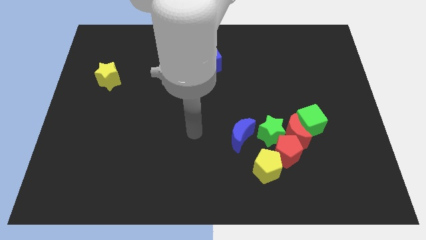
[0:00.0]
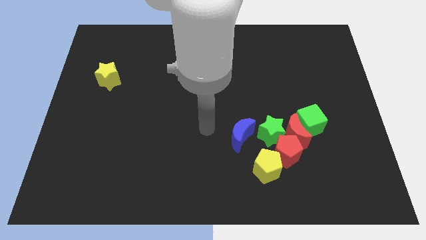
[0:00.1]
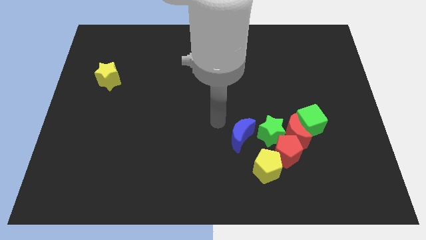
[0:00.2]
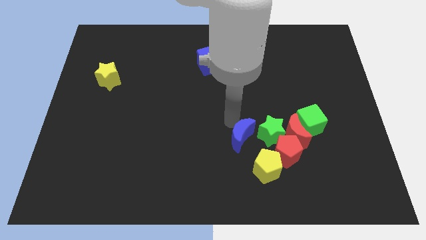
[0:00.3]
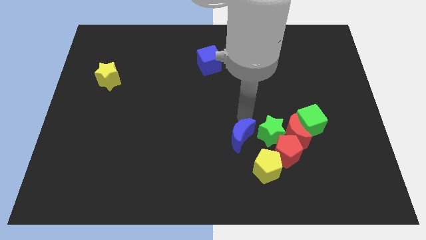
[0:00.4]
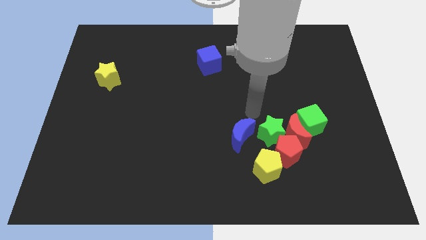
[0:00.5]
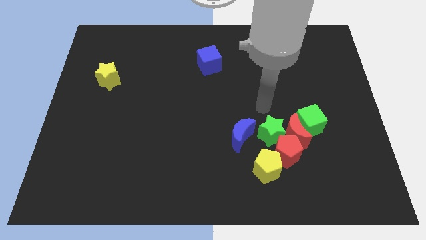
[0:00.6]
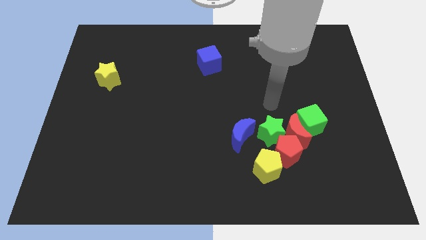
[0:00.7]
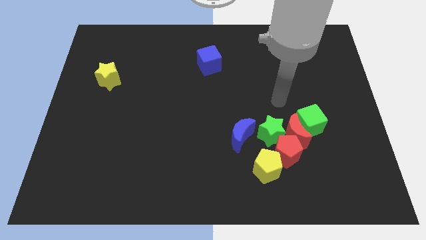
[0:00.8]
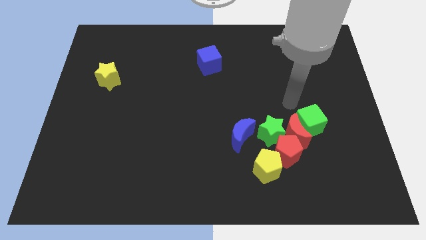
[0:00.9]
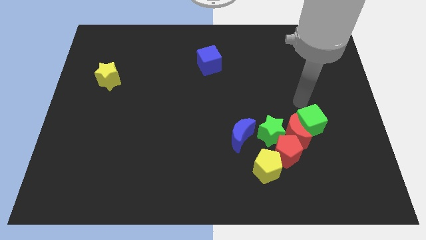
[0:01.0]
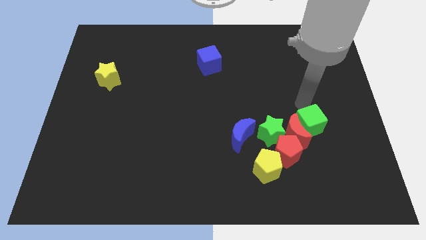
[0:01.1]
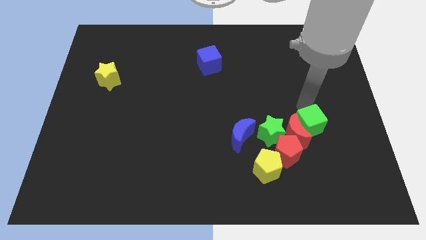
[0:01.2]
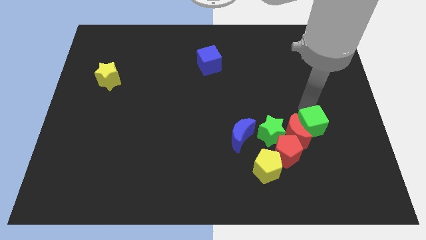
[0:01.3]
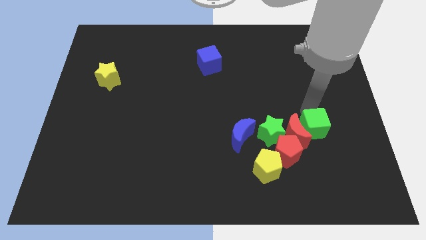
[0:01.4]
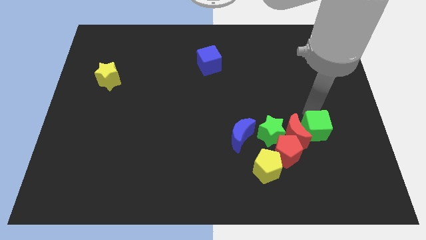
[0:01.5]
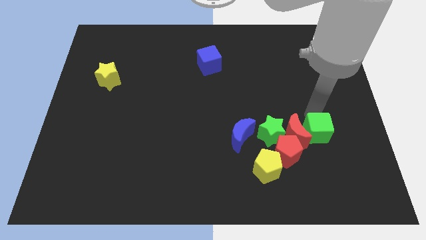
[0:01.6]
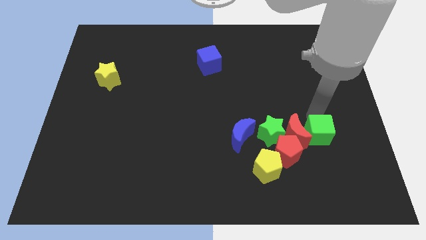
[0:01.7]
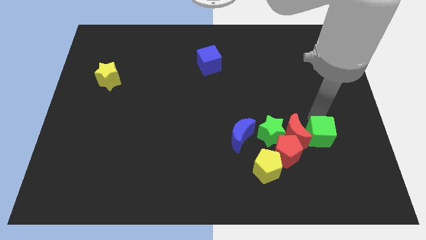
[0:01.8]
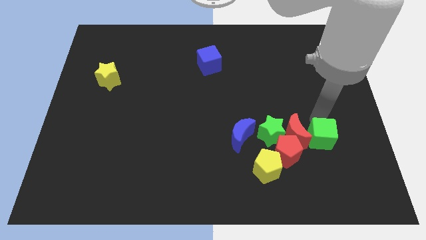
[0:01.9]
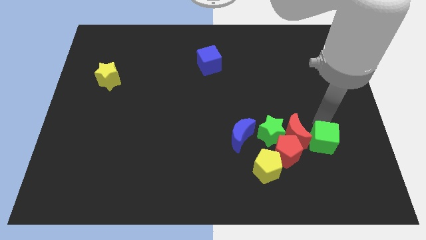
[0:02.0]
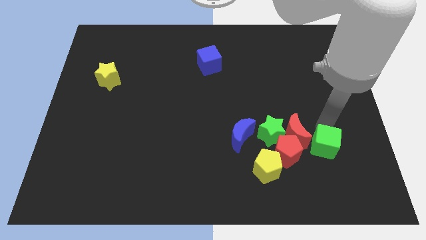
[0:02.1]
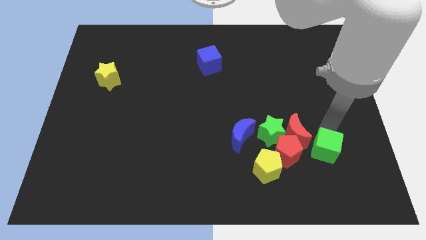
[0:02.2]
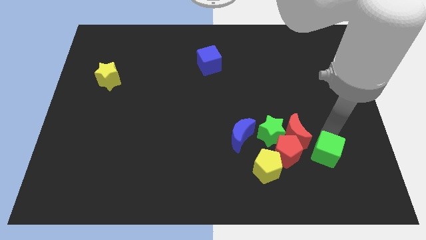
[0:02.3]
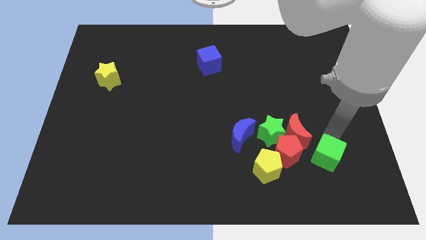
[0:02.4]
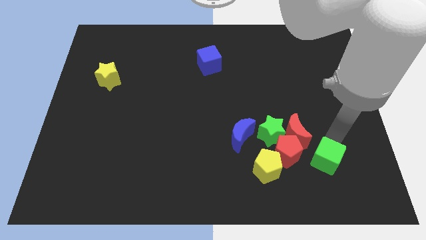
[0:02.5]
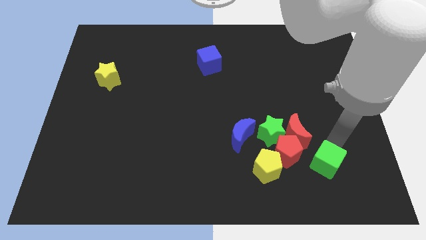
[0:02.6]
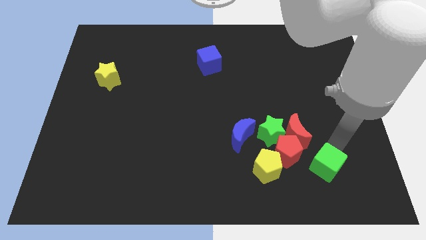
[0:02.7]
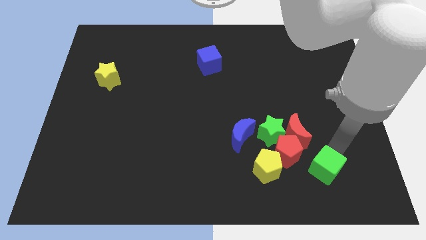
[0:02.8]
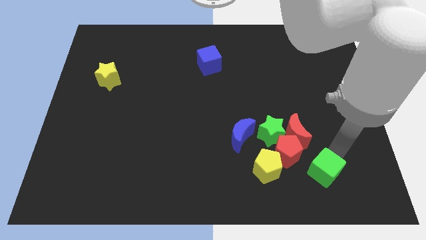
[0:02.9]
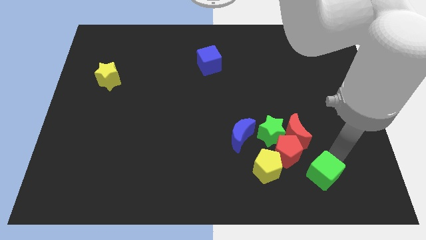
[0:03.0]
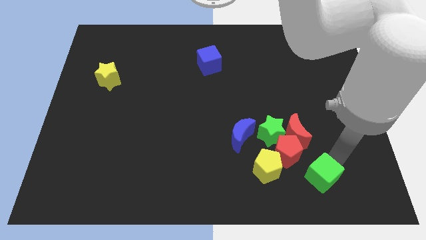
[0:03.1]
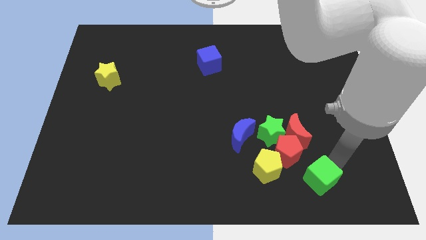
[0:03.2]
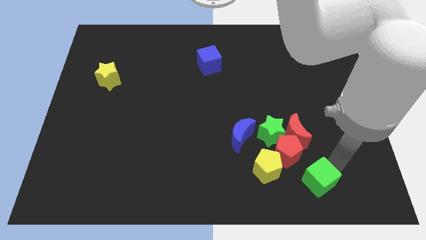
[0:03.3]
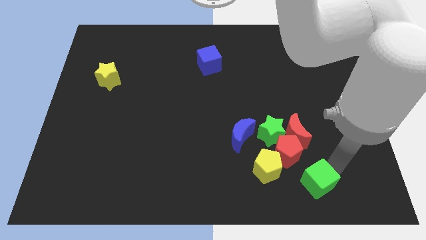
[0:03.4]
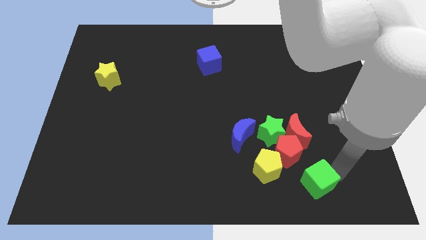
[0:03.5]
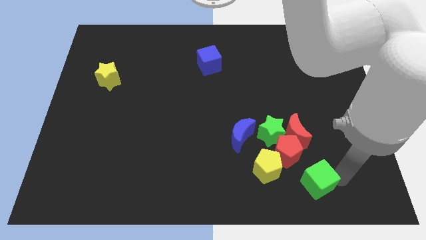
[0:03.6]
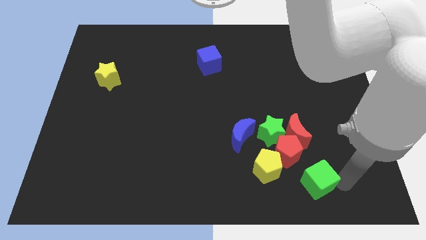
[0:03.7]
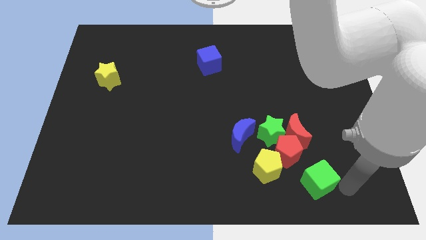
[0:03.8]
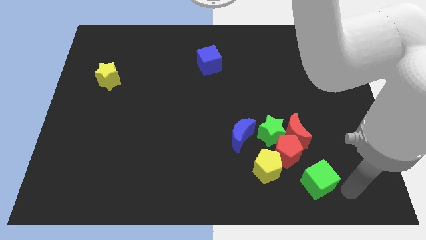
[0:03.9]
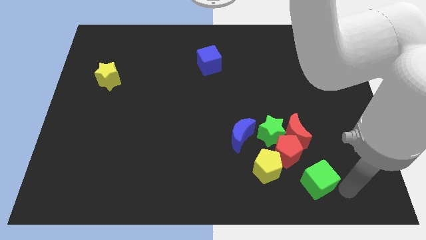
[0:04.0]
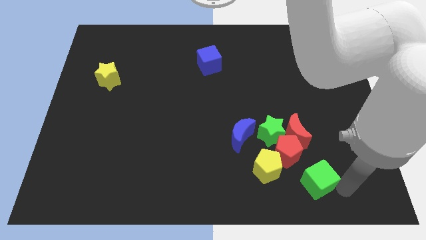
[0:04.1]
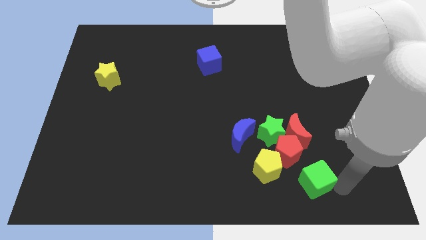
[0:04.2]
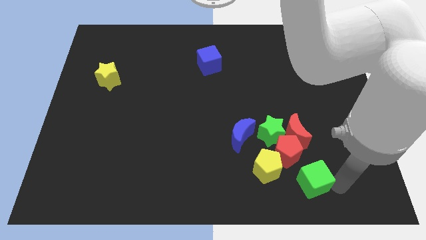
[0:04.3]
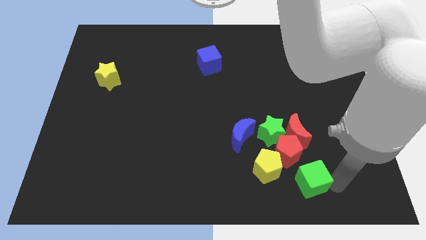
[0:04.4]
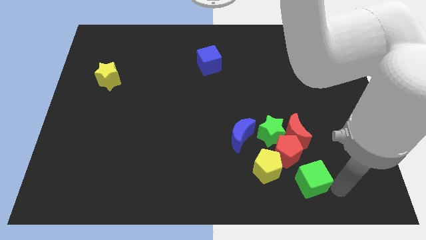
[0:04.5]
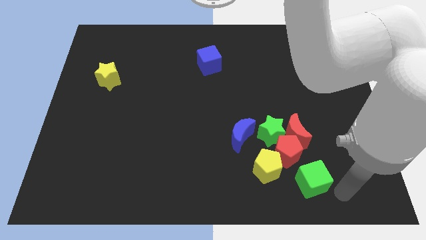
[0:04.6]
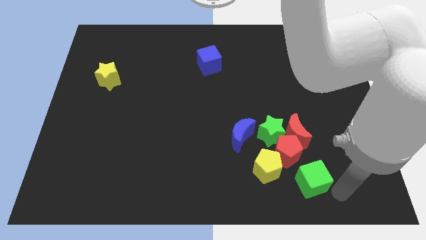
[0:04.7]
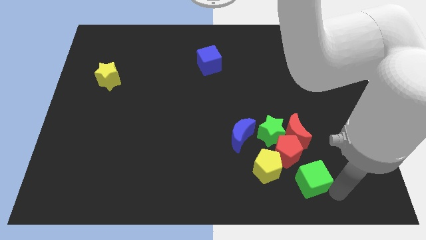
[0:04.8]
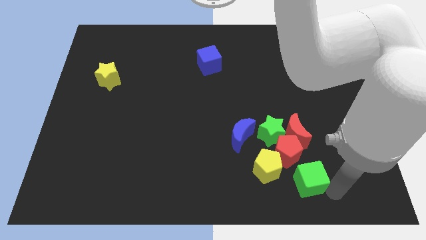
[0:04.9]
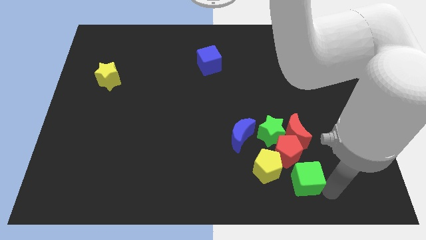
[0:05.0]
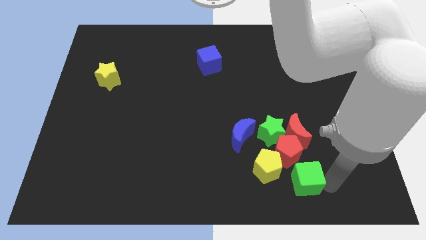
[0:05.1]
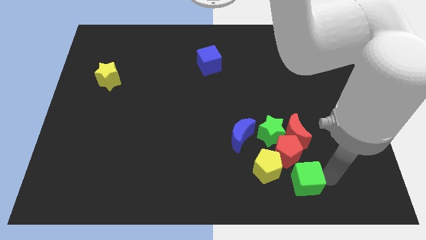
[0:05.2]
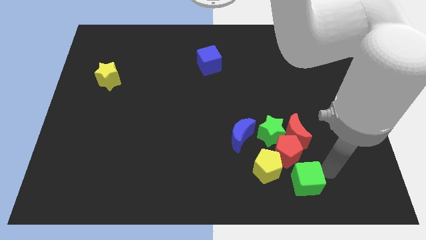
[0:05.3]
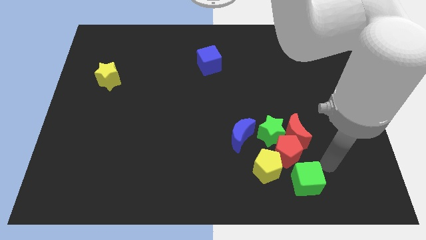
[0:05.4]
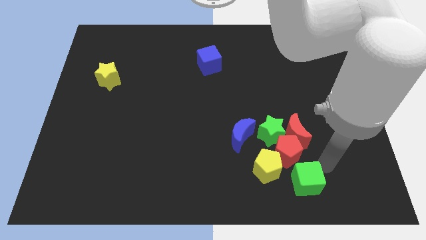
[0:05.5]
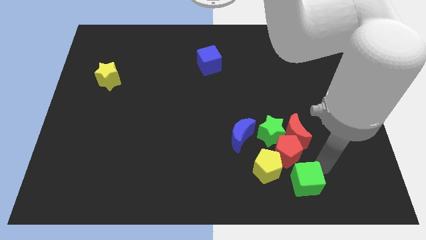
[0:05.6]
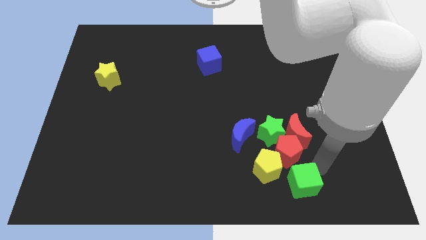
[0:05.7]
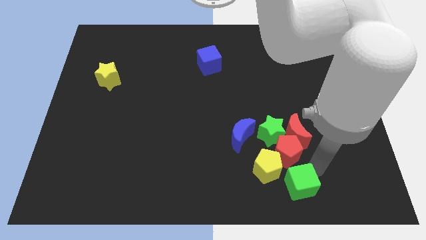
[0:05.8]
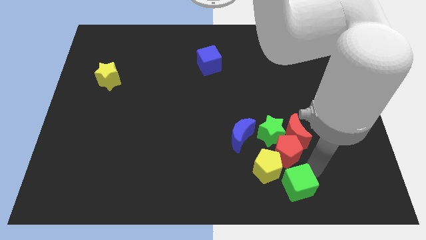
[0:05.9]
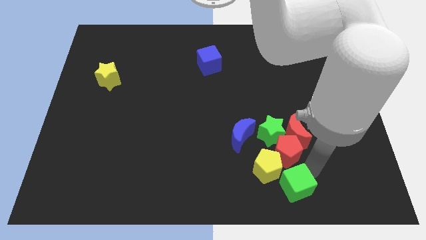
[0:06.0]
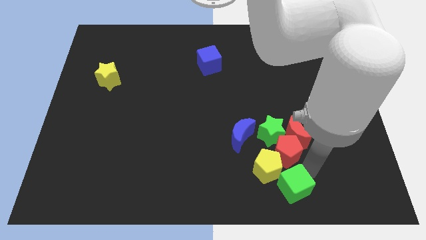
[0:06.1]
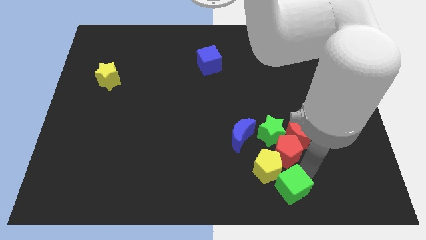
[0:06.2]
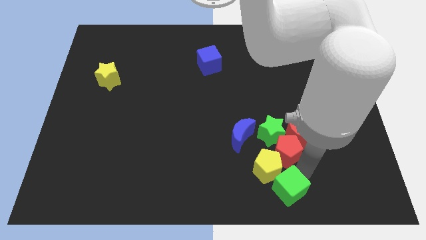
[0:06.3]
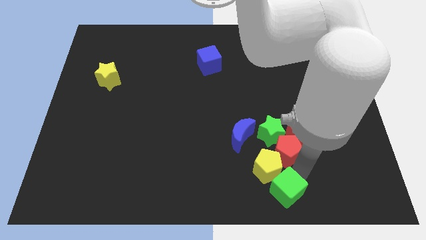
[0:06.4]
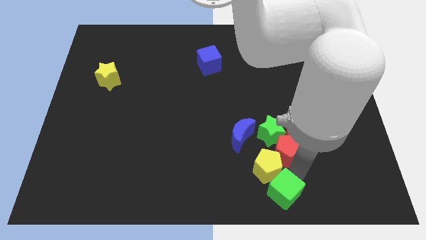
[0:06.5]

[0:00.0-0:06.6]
put the green cube to the bottom left side of the red pentagon
